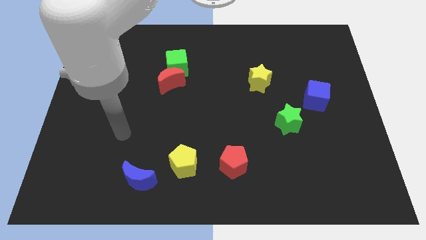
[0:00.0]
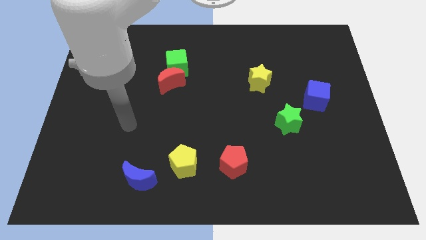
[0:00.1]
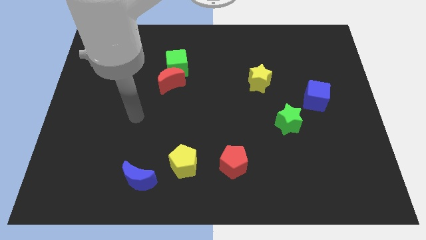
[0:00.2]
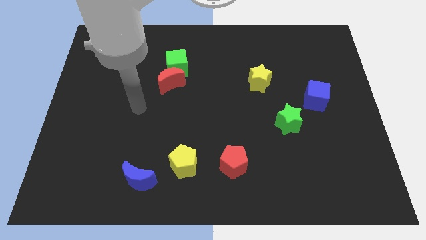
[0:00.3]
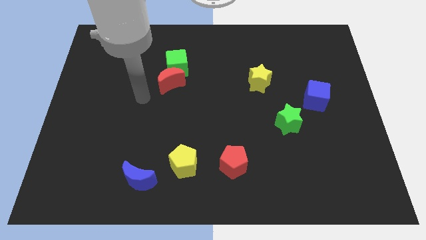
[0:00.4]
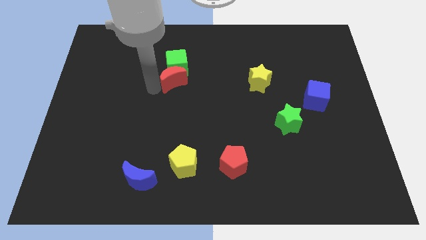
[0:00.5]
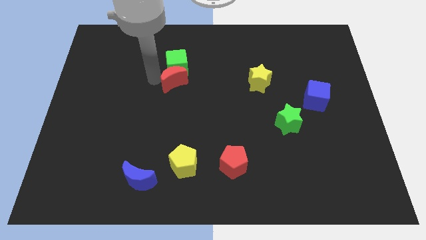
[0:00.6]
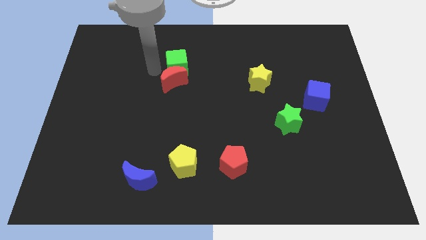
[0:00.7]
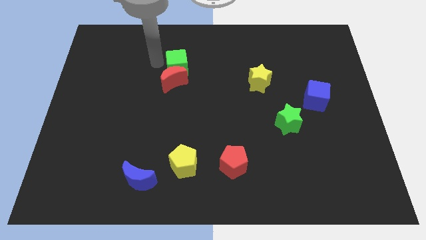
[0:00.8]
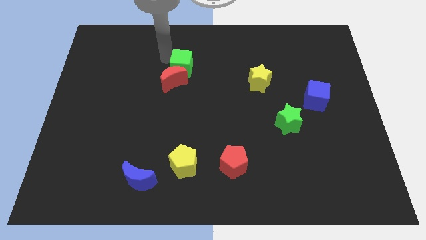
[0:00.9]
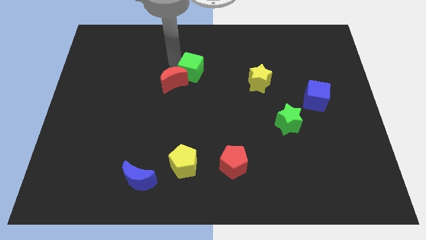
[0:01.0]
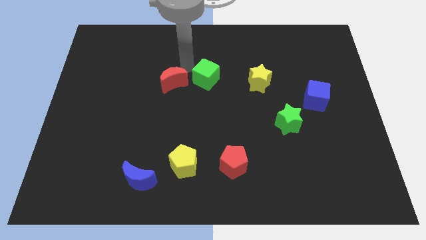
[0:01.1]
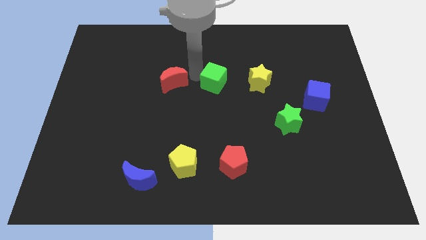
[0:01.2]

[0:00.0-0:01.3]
separate the red moon from the green cube

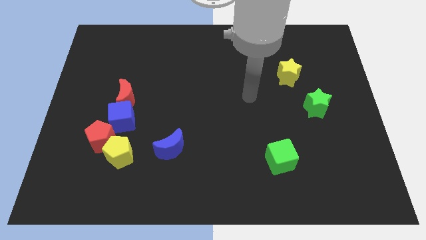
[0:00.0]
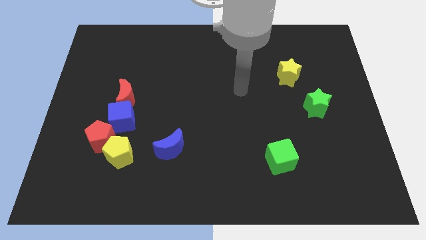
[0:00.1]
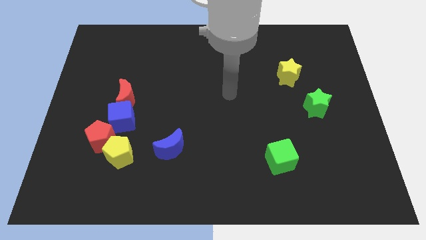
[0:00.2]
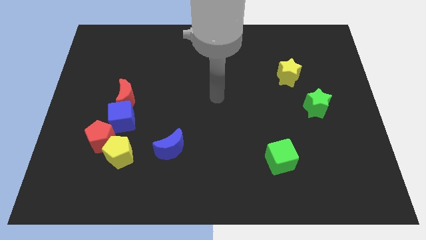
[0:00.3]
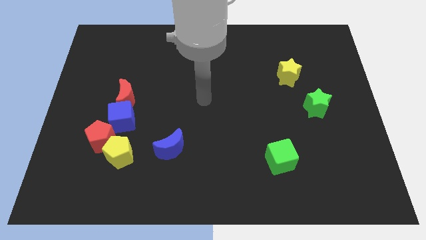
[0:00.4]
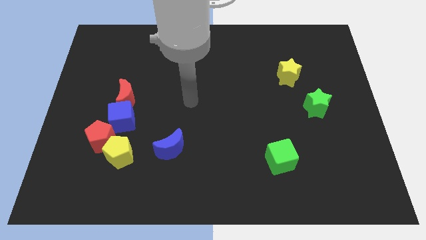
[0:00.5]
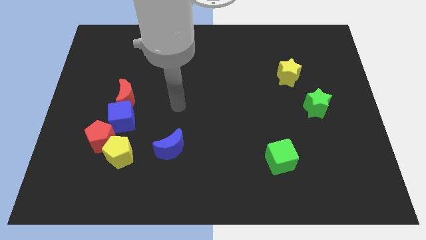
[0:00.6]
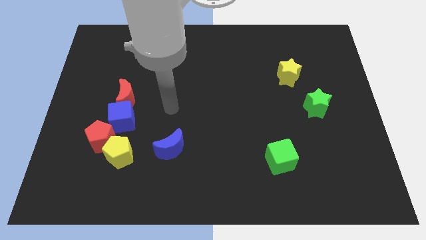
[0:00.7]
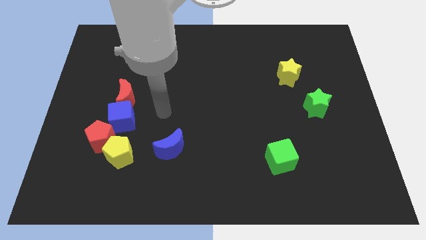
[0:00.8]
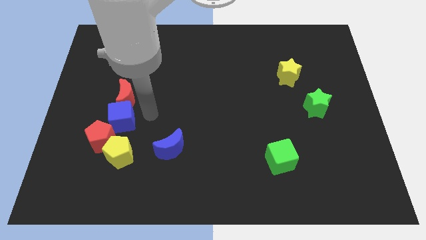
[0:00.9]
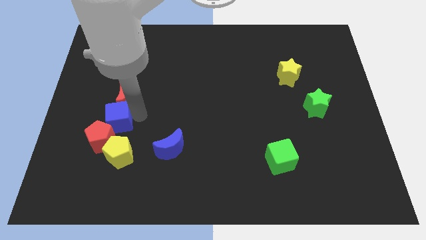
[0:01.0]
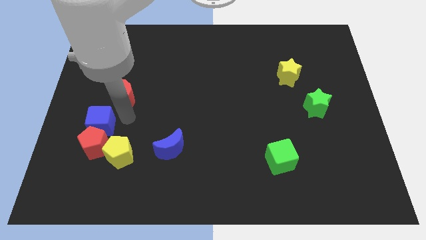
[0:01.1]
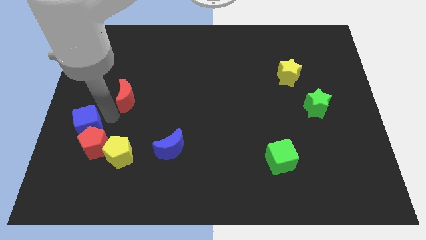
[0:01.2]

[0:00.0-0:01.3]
pull the red moon apart from the blue cube

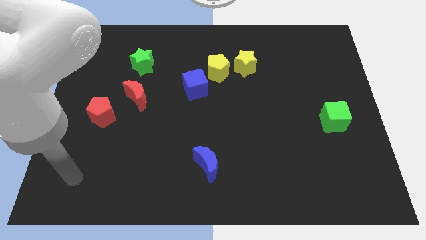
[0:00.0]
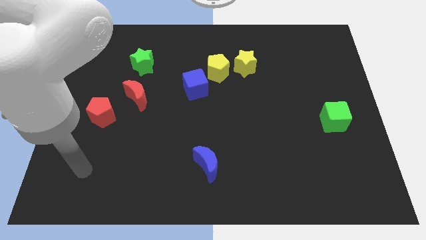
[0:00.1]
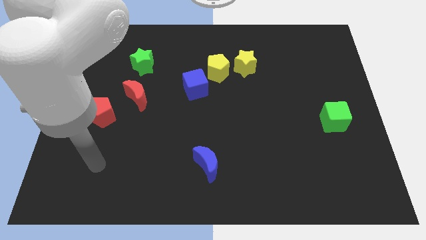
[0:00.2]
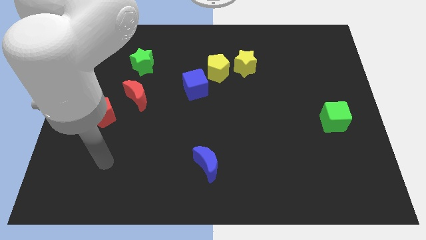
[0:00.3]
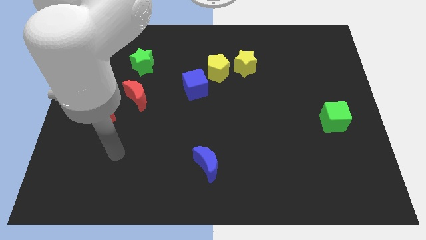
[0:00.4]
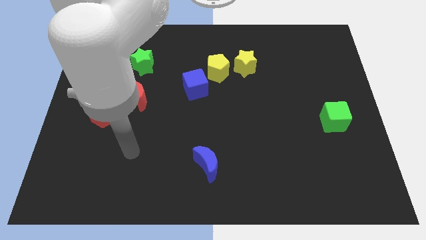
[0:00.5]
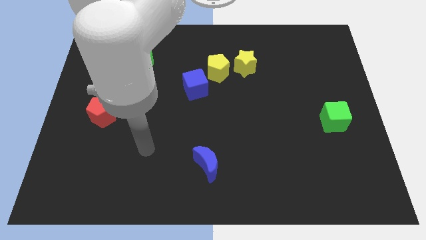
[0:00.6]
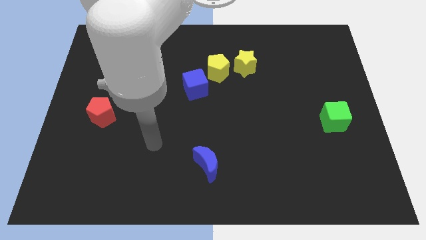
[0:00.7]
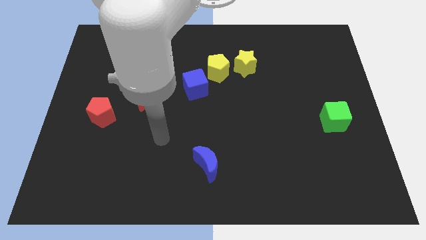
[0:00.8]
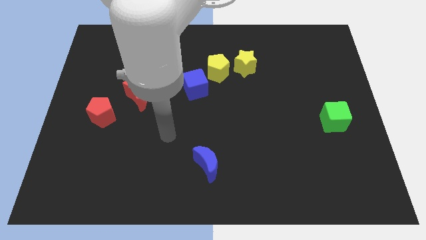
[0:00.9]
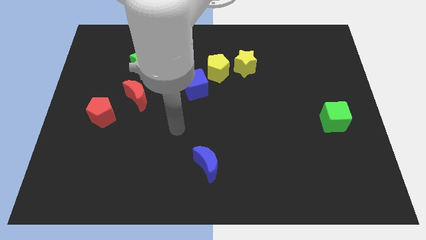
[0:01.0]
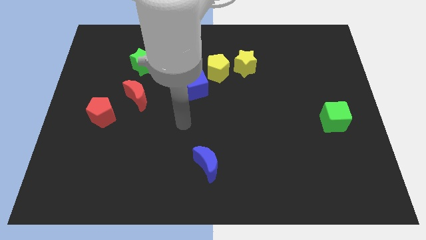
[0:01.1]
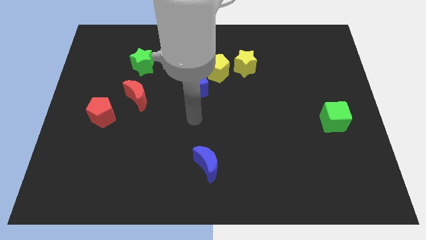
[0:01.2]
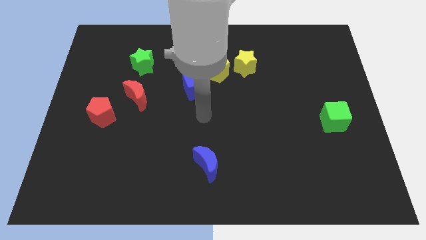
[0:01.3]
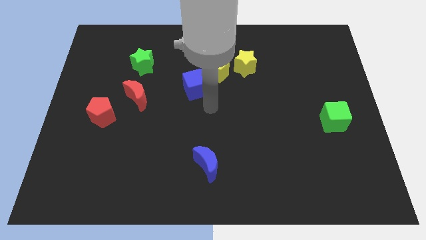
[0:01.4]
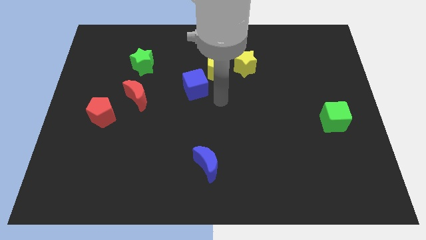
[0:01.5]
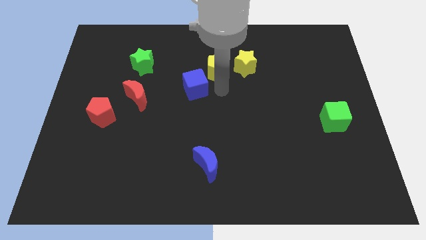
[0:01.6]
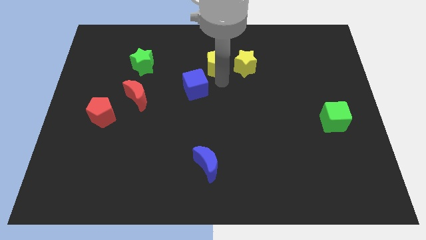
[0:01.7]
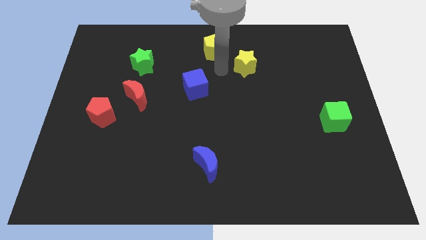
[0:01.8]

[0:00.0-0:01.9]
pull the yellow star apart from the yellow pentagon

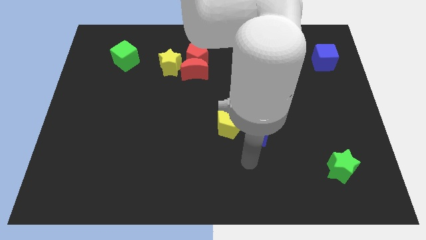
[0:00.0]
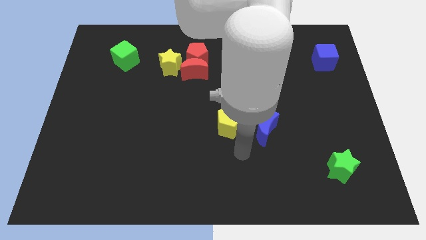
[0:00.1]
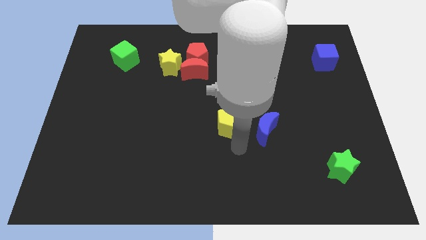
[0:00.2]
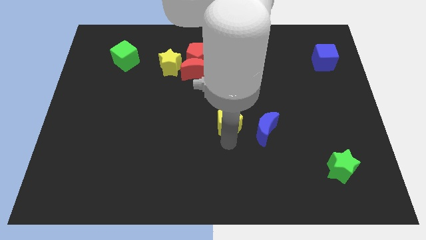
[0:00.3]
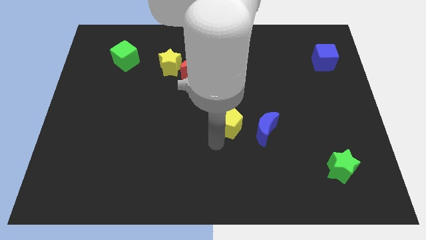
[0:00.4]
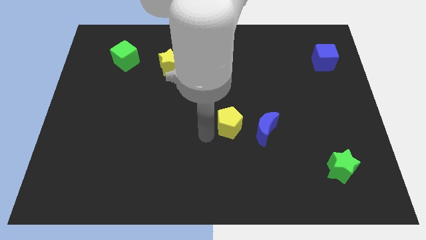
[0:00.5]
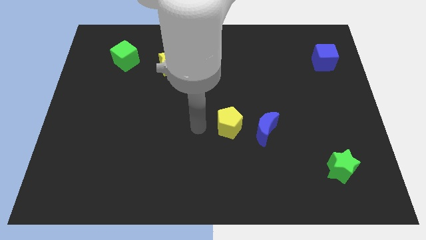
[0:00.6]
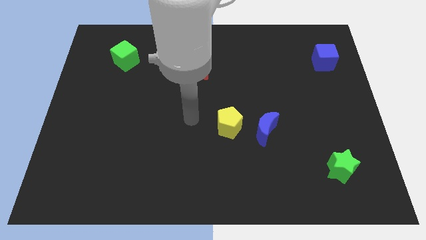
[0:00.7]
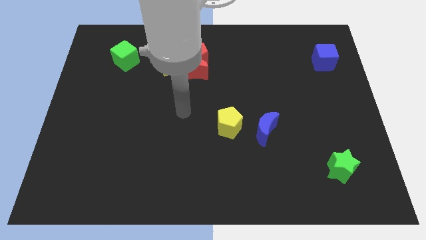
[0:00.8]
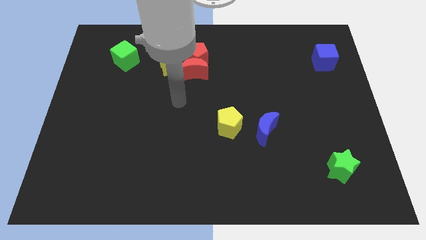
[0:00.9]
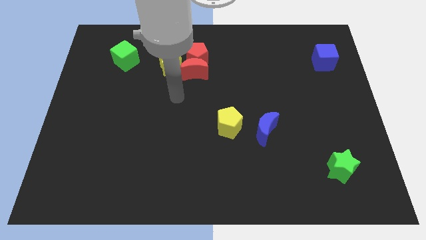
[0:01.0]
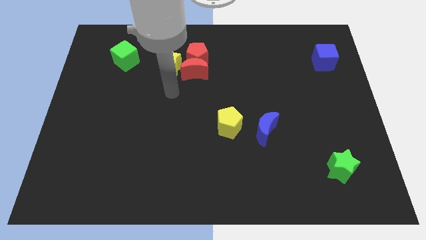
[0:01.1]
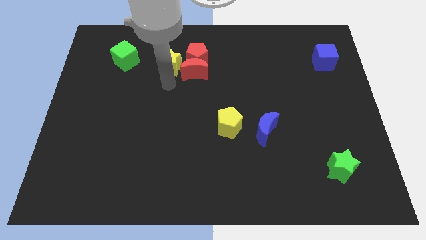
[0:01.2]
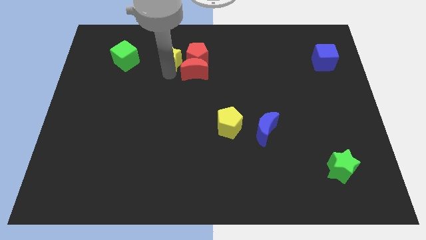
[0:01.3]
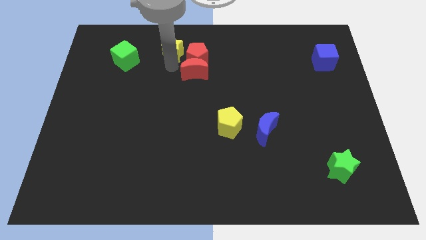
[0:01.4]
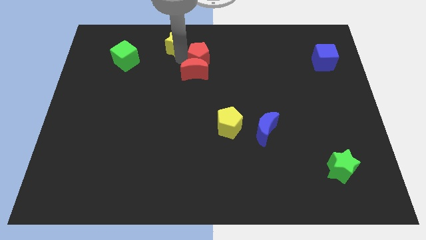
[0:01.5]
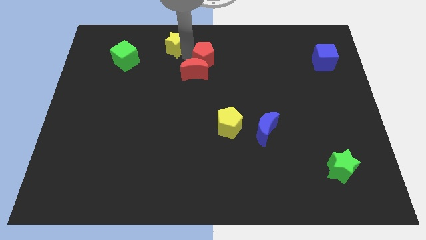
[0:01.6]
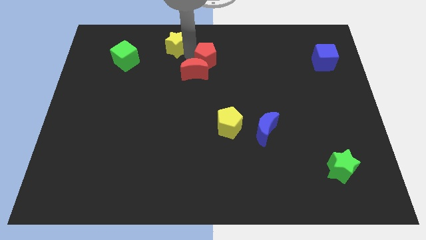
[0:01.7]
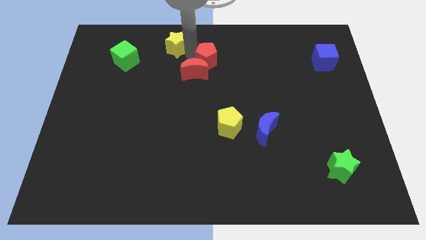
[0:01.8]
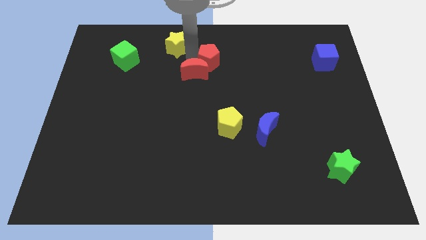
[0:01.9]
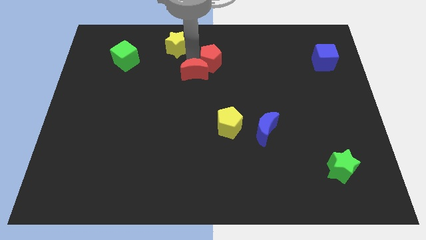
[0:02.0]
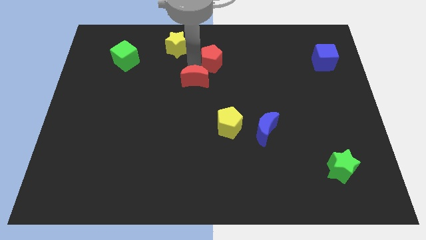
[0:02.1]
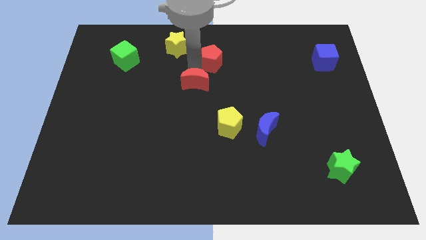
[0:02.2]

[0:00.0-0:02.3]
move the red moon away from the red pentagon and yellow star

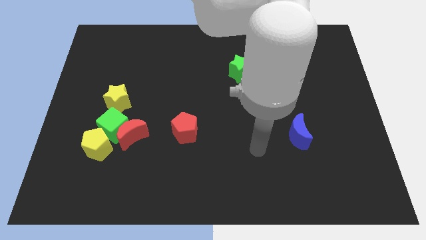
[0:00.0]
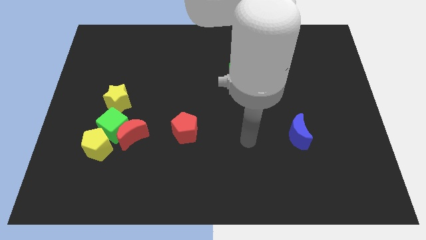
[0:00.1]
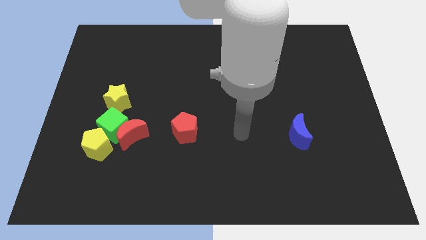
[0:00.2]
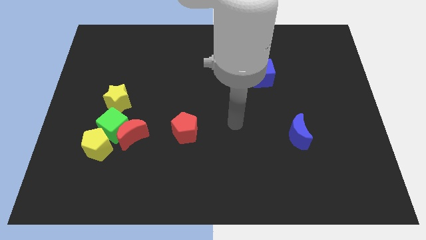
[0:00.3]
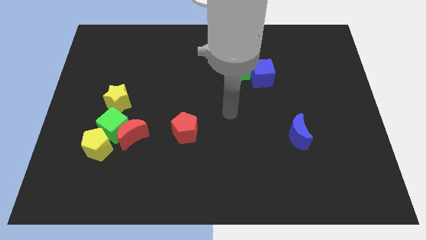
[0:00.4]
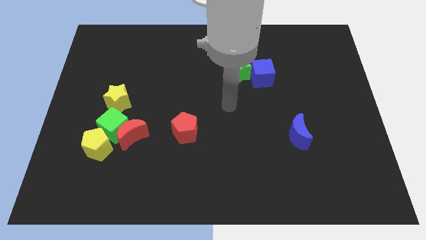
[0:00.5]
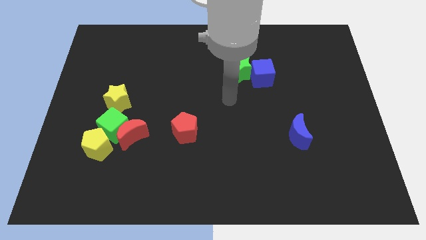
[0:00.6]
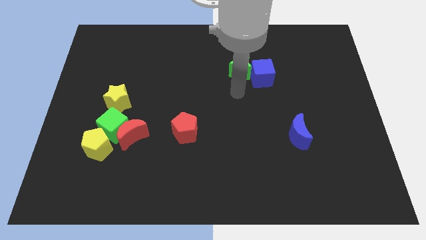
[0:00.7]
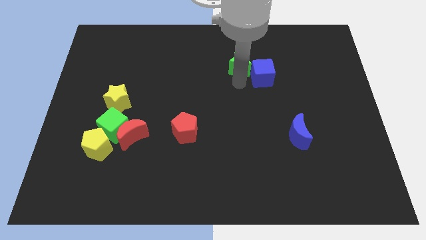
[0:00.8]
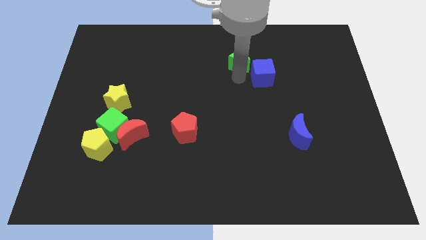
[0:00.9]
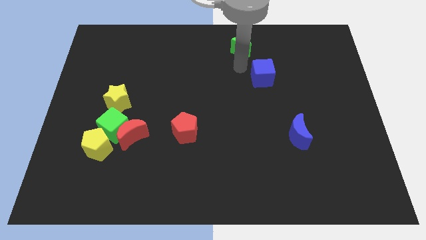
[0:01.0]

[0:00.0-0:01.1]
pull the blue cube apart from the green star

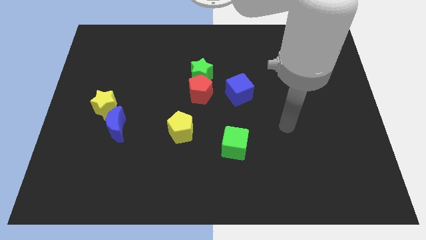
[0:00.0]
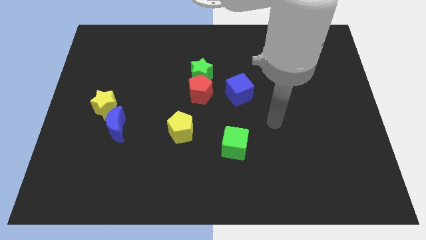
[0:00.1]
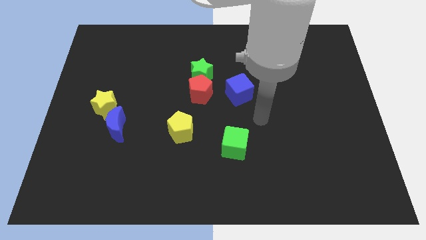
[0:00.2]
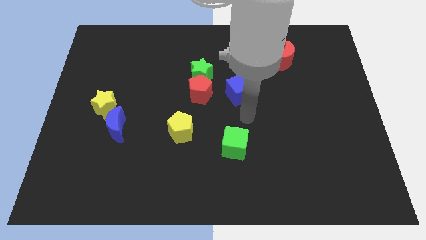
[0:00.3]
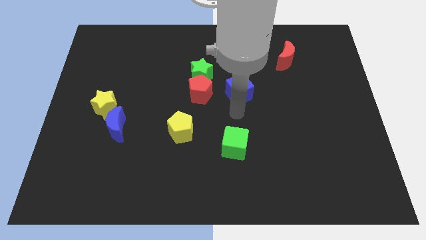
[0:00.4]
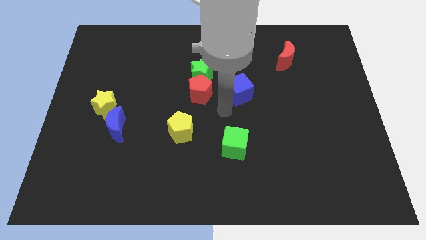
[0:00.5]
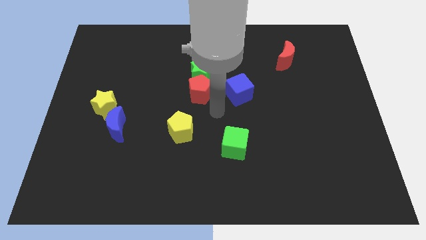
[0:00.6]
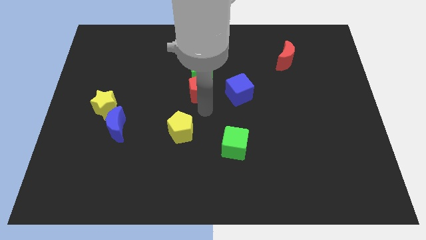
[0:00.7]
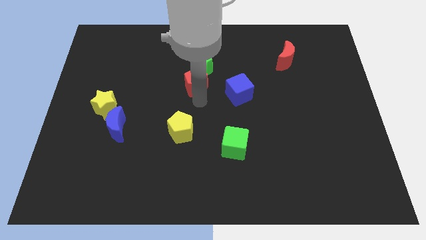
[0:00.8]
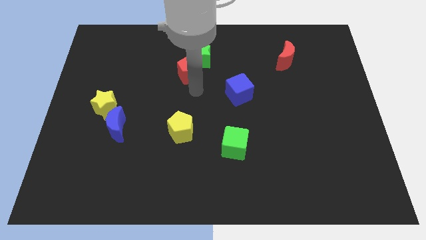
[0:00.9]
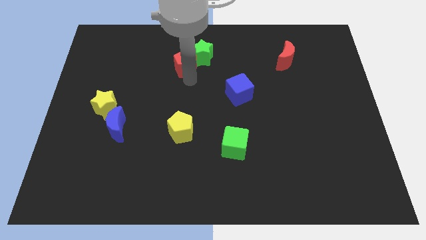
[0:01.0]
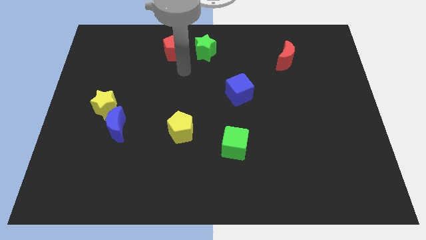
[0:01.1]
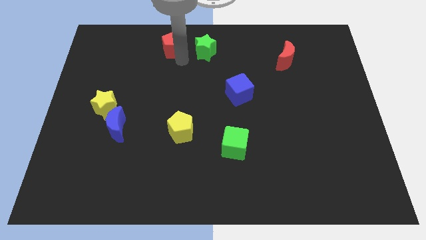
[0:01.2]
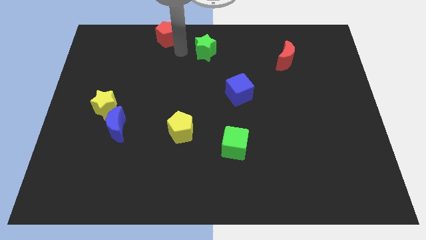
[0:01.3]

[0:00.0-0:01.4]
pull the green star apart from the red pentagon
